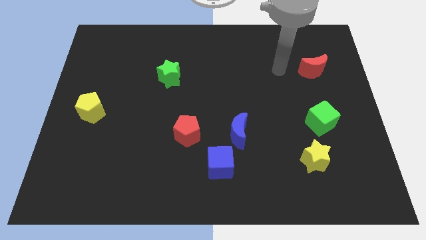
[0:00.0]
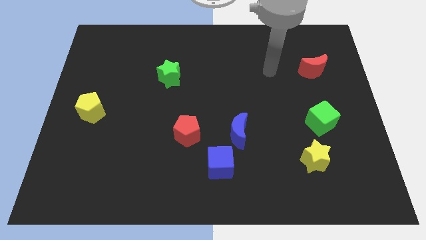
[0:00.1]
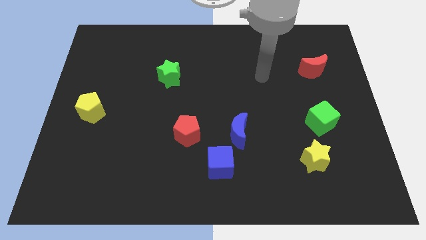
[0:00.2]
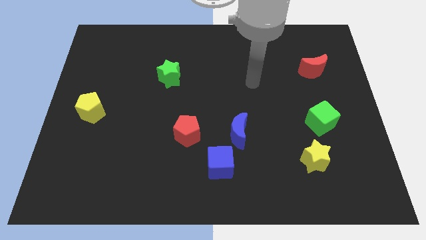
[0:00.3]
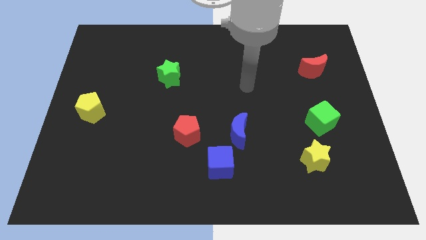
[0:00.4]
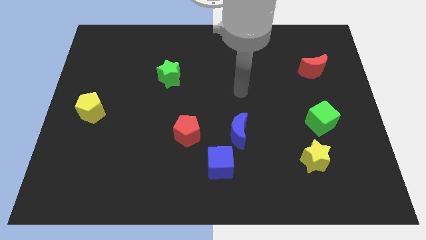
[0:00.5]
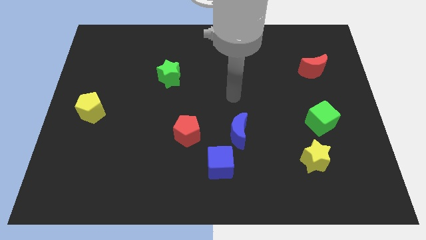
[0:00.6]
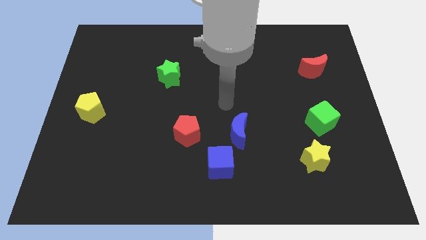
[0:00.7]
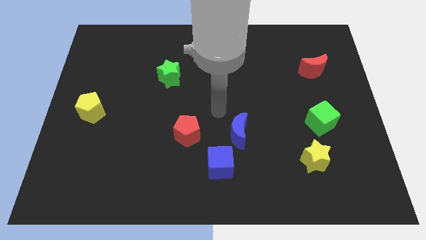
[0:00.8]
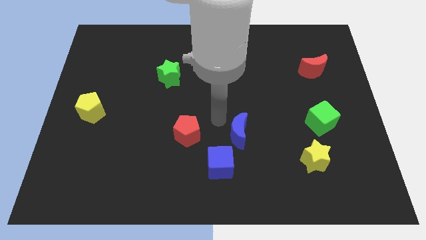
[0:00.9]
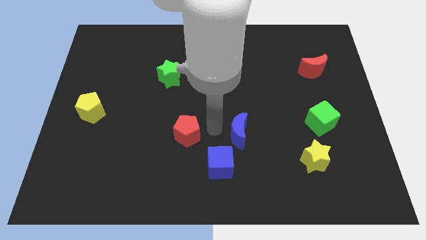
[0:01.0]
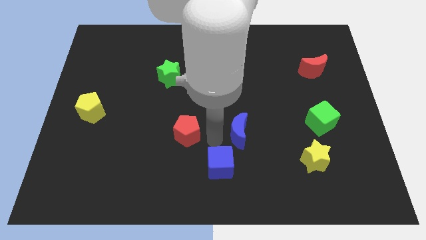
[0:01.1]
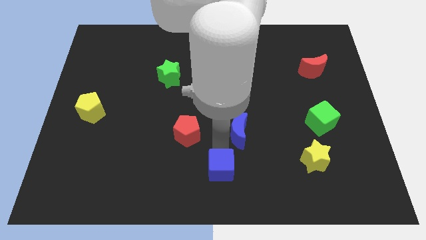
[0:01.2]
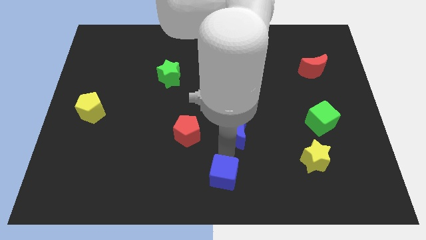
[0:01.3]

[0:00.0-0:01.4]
move the blue moon away from the blue cube

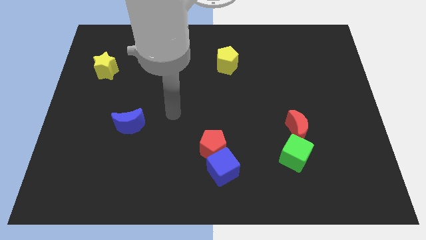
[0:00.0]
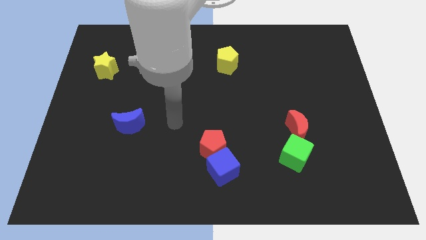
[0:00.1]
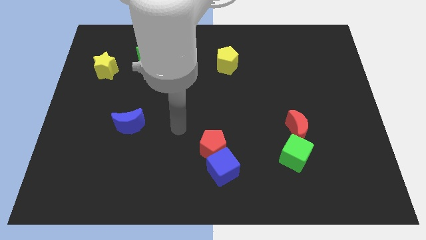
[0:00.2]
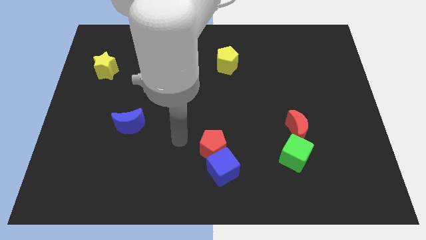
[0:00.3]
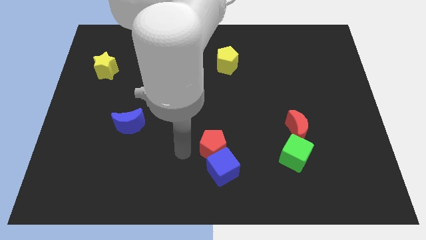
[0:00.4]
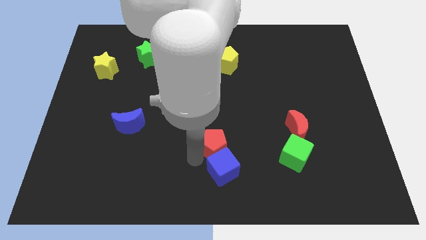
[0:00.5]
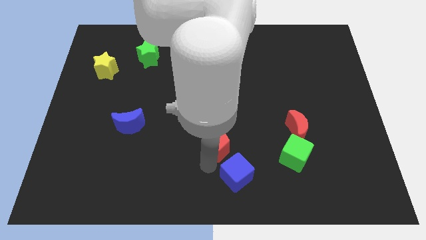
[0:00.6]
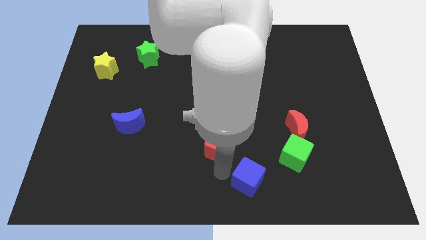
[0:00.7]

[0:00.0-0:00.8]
move the red pentagon away from the blue cube

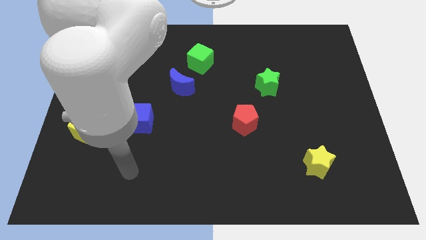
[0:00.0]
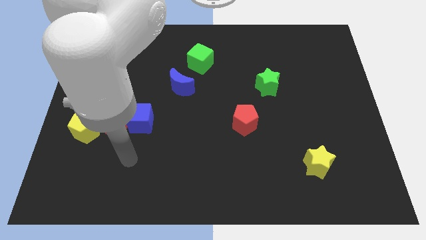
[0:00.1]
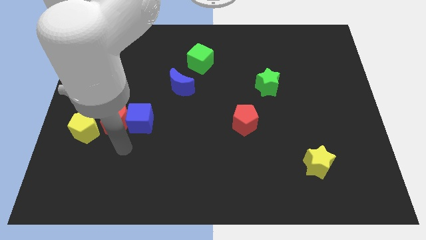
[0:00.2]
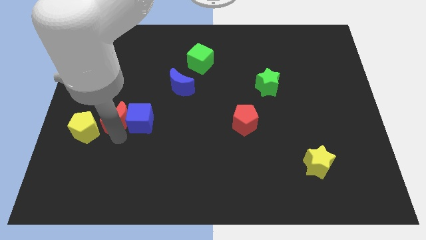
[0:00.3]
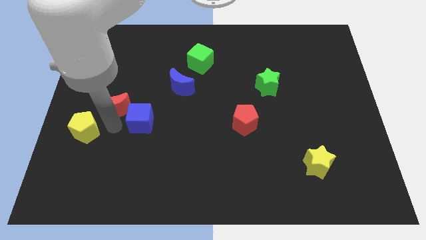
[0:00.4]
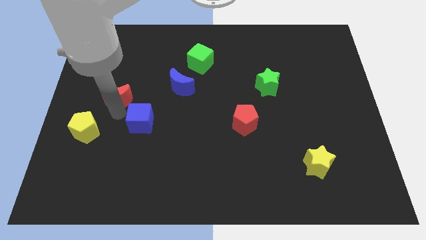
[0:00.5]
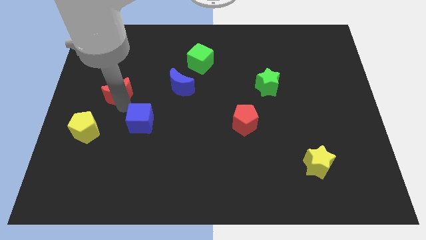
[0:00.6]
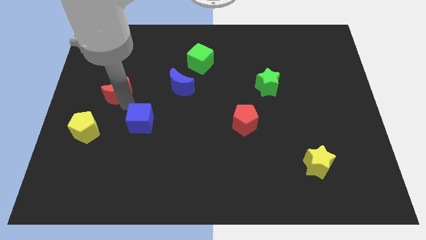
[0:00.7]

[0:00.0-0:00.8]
pull the blue cube apart from the red moon

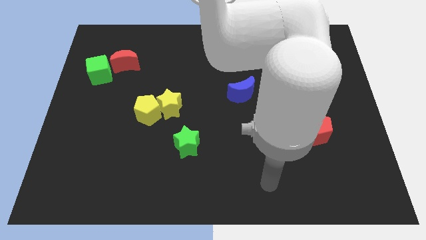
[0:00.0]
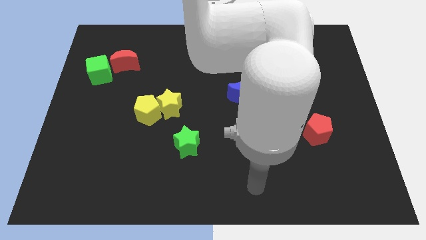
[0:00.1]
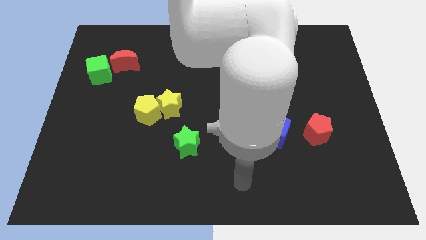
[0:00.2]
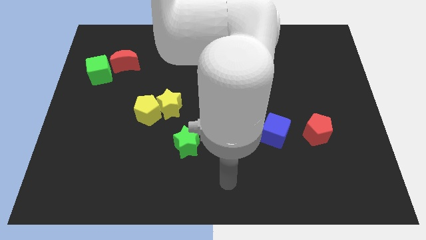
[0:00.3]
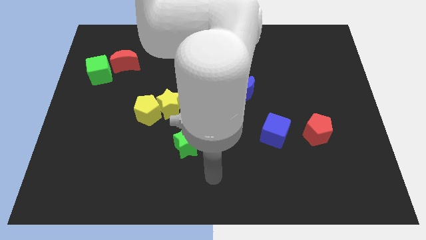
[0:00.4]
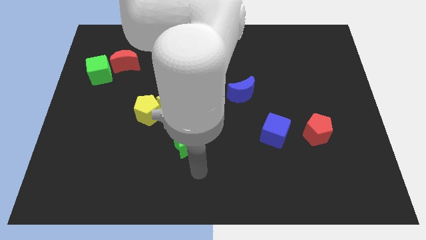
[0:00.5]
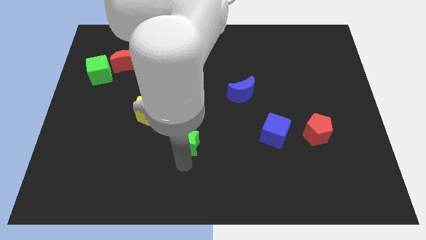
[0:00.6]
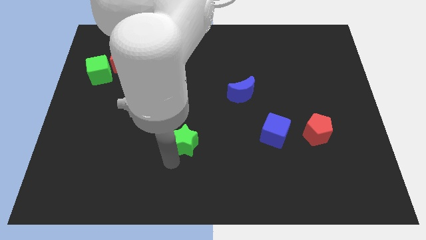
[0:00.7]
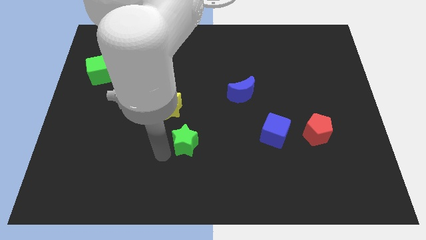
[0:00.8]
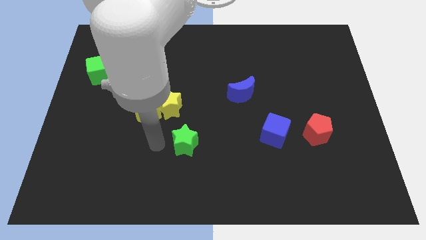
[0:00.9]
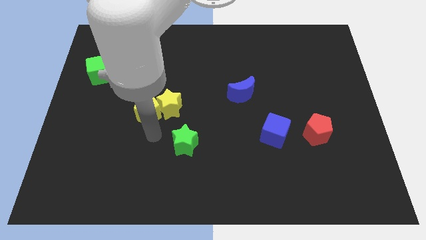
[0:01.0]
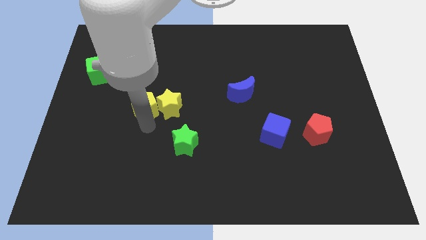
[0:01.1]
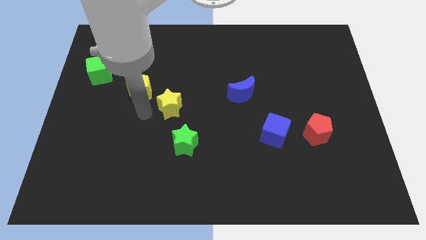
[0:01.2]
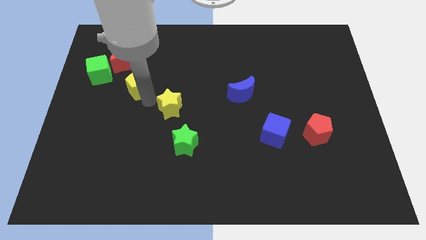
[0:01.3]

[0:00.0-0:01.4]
separate the yellow star from the yellow pentagon

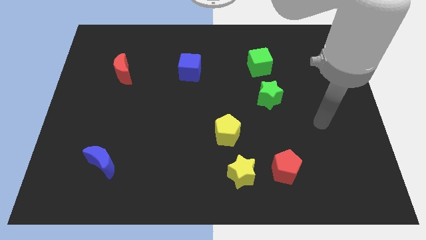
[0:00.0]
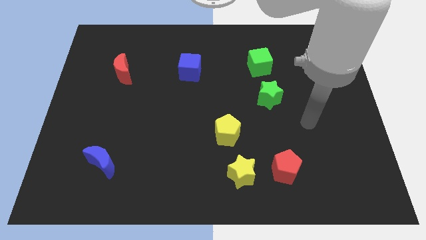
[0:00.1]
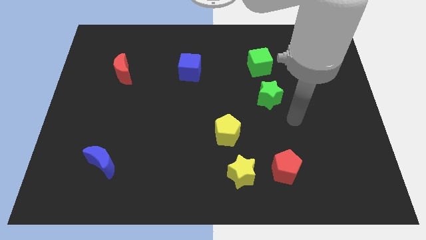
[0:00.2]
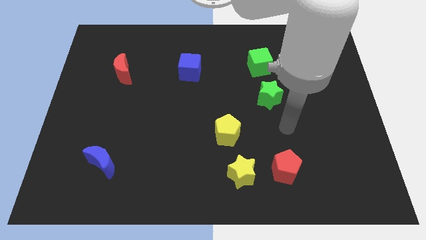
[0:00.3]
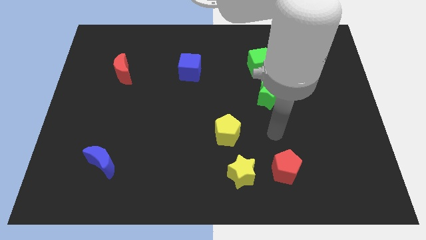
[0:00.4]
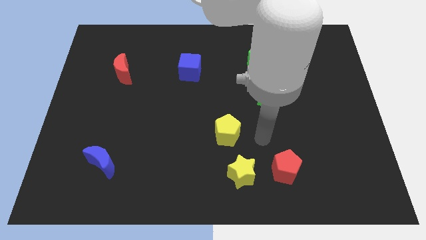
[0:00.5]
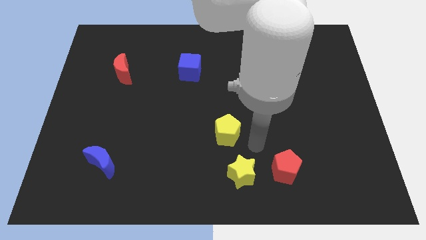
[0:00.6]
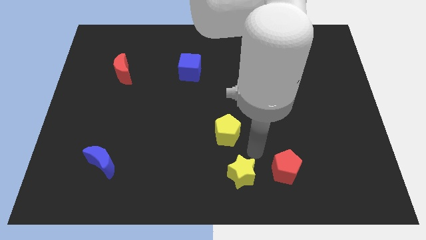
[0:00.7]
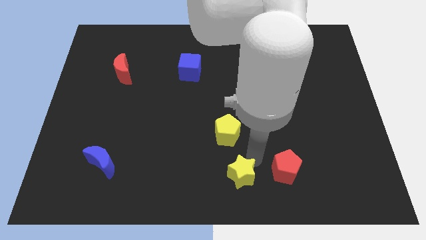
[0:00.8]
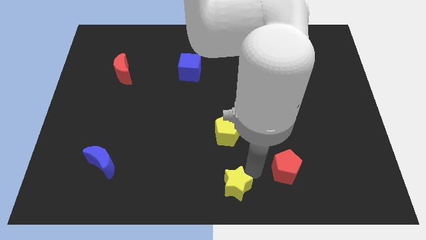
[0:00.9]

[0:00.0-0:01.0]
pull the red pentagon apart from the yellow star

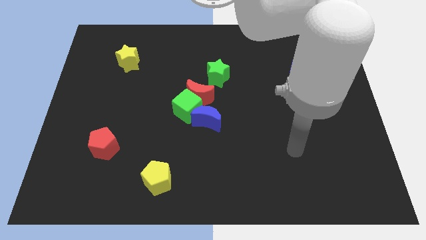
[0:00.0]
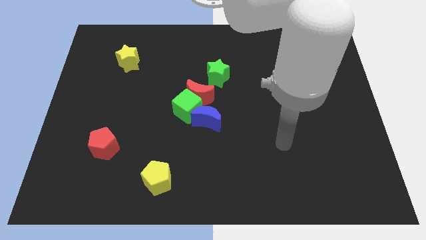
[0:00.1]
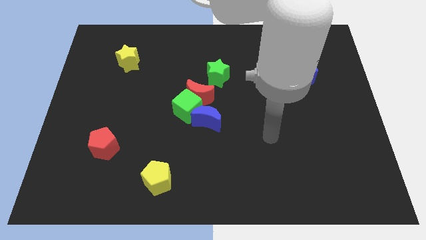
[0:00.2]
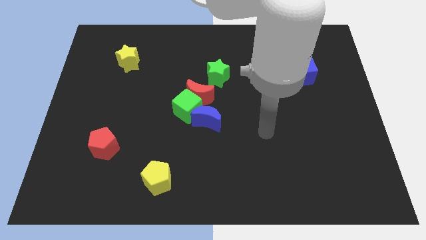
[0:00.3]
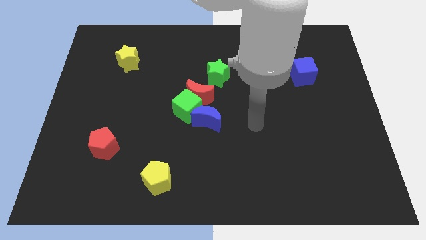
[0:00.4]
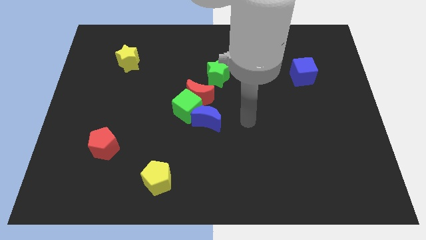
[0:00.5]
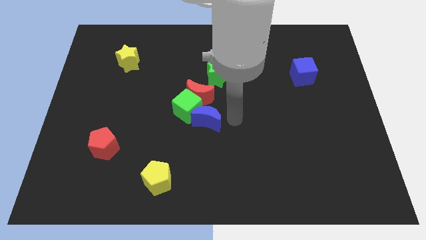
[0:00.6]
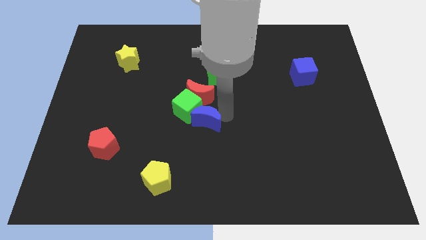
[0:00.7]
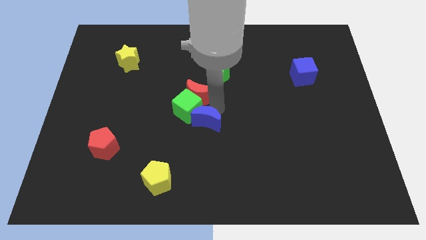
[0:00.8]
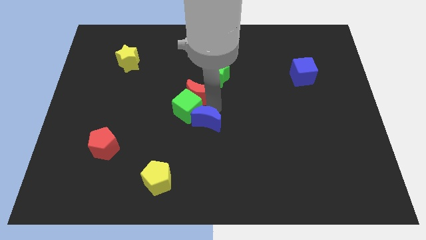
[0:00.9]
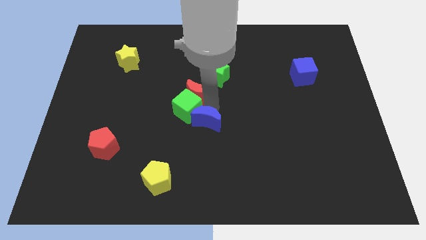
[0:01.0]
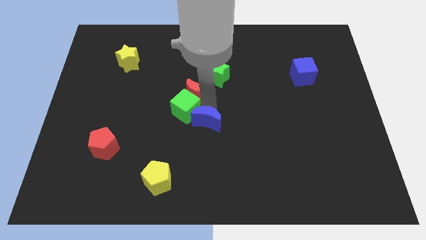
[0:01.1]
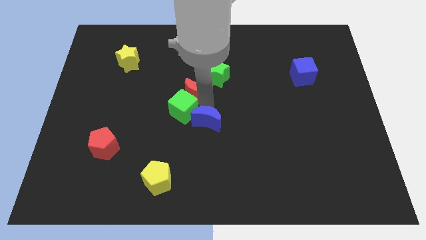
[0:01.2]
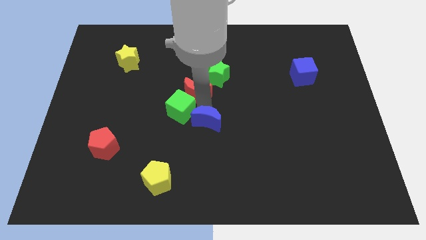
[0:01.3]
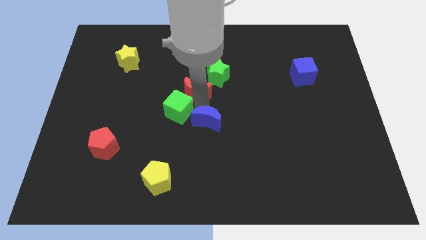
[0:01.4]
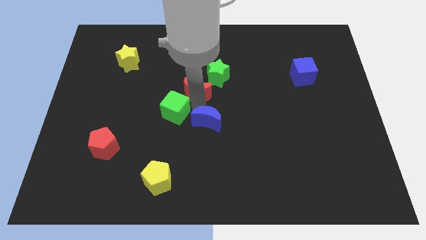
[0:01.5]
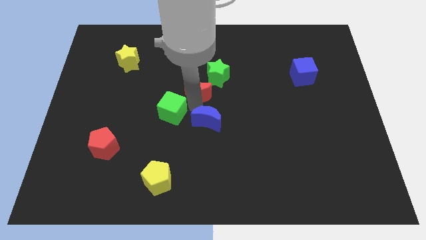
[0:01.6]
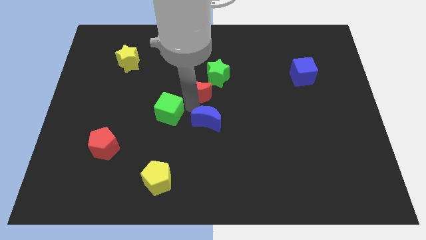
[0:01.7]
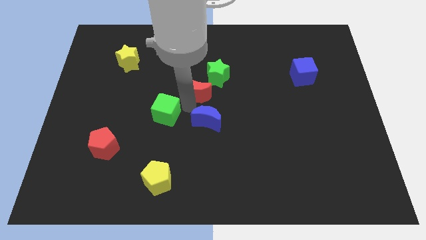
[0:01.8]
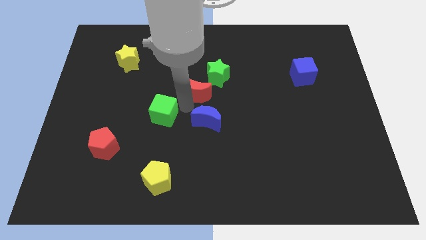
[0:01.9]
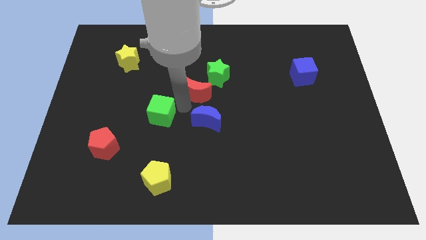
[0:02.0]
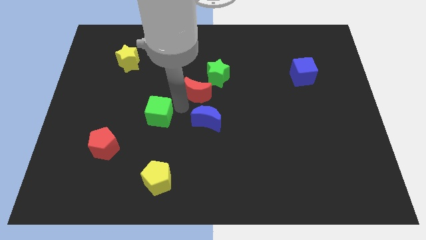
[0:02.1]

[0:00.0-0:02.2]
pull the green cube apart from the red moon and blue moon

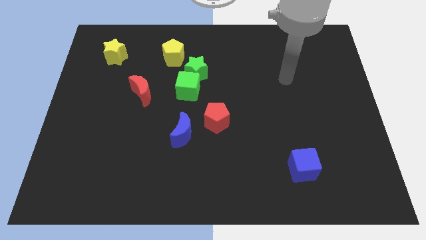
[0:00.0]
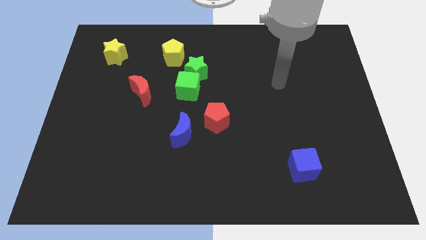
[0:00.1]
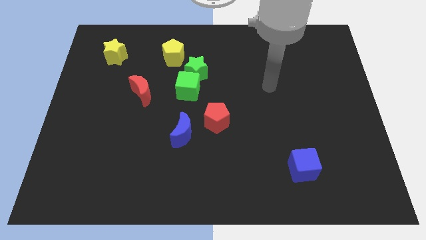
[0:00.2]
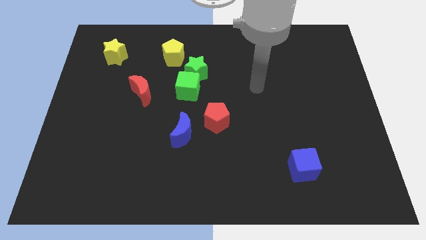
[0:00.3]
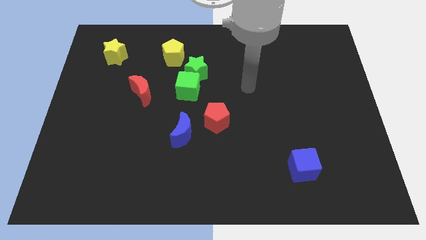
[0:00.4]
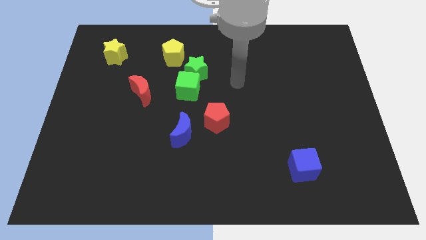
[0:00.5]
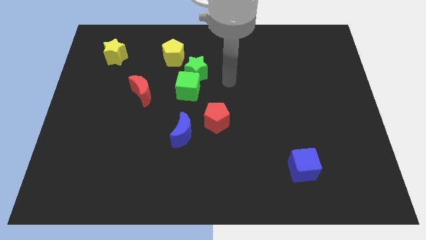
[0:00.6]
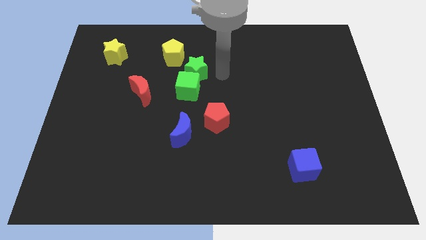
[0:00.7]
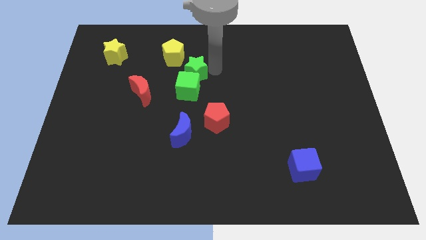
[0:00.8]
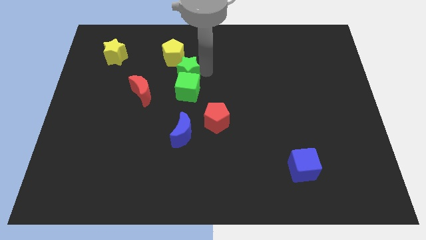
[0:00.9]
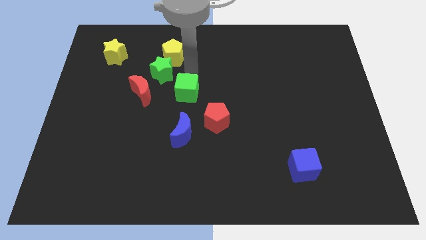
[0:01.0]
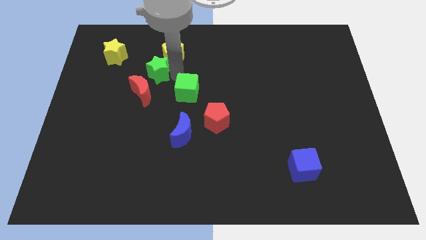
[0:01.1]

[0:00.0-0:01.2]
pull the green cube apart from the green star

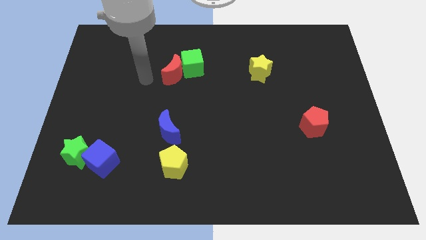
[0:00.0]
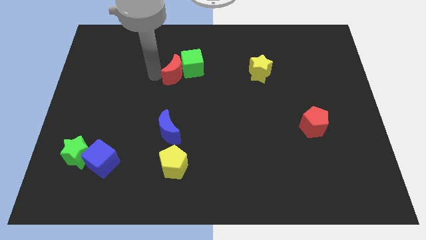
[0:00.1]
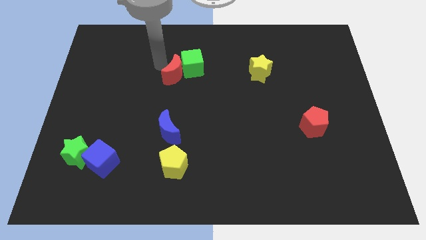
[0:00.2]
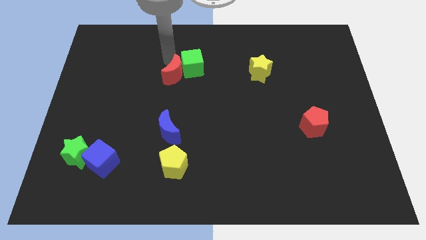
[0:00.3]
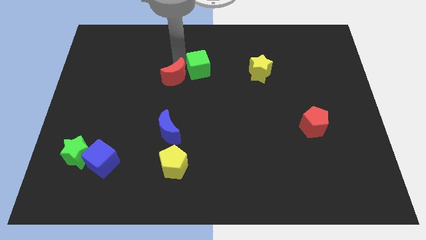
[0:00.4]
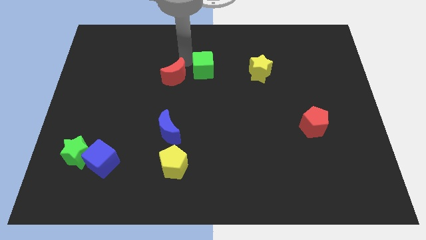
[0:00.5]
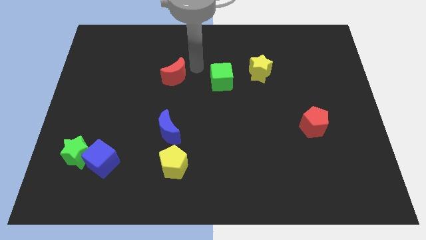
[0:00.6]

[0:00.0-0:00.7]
move the red moon away from the green cube
